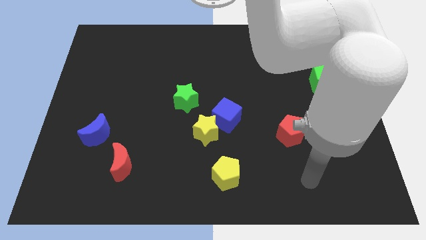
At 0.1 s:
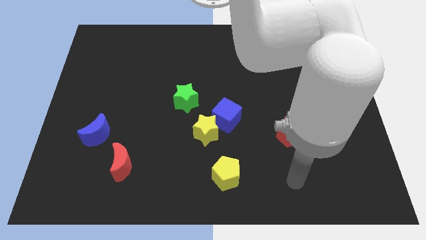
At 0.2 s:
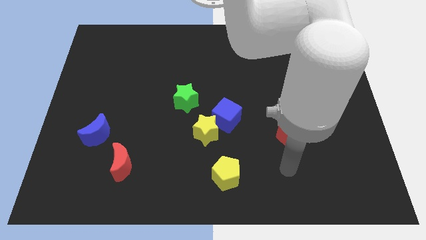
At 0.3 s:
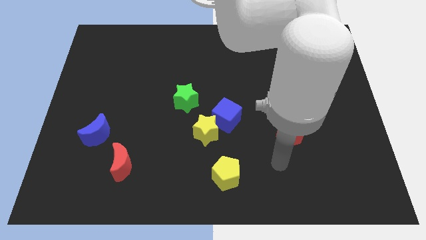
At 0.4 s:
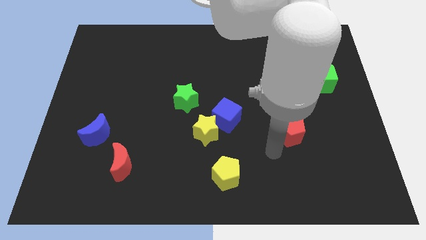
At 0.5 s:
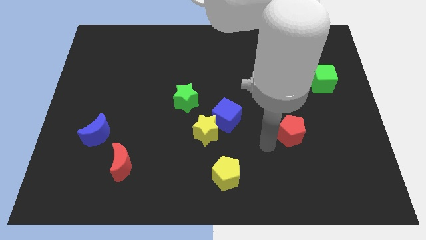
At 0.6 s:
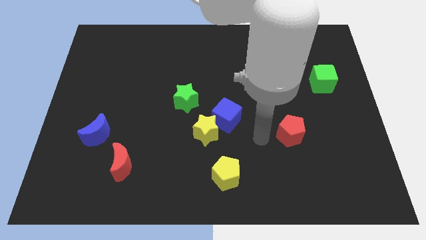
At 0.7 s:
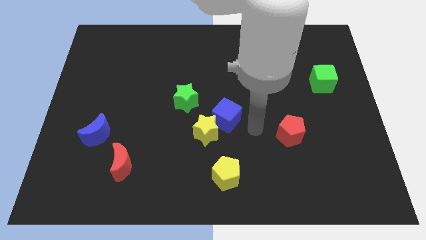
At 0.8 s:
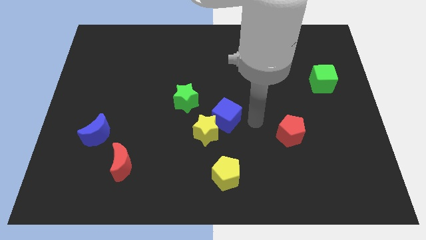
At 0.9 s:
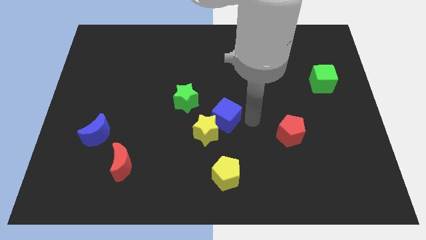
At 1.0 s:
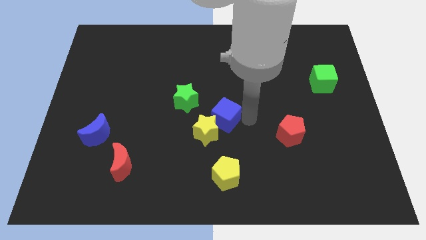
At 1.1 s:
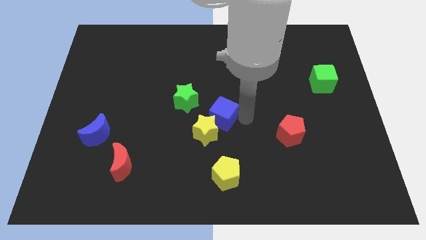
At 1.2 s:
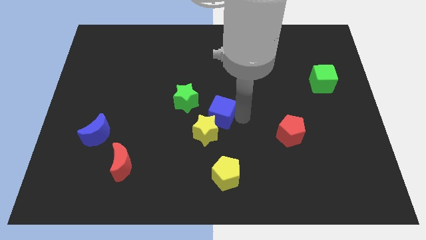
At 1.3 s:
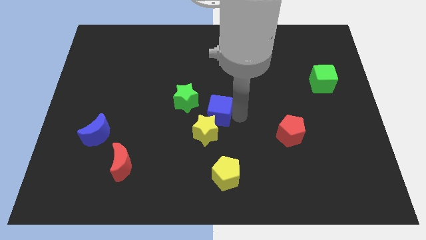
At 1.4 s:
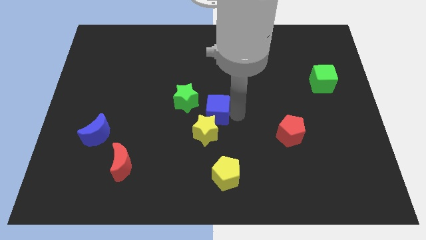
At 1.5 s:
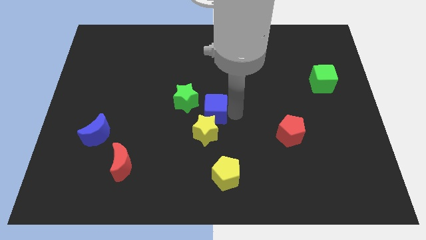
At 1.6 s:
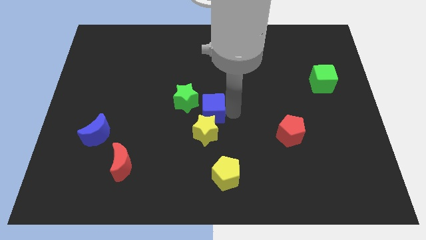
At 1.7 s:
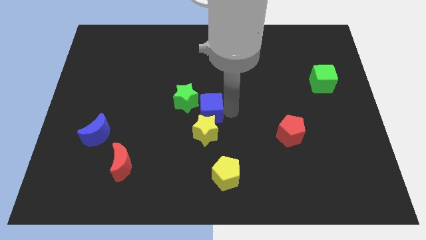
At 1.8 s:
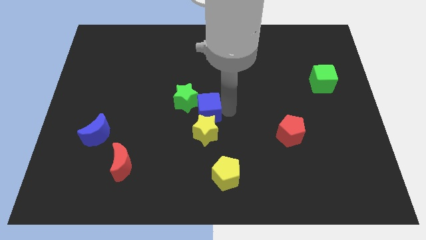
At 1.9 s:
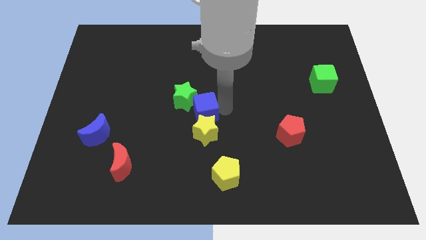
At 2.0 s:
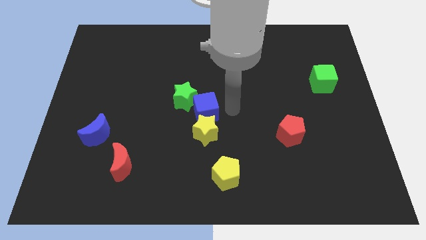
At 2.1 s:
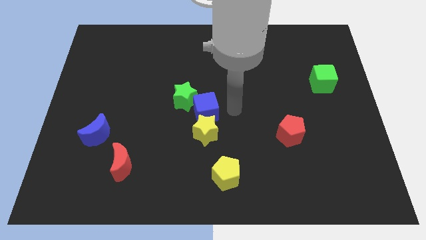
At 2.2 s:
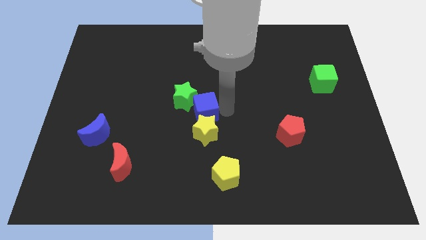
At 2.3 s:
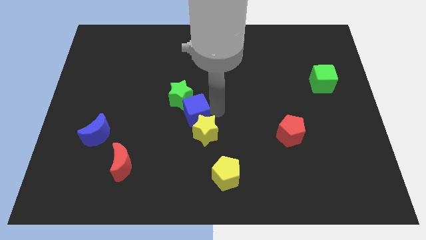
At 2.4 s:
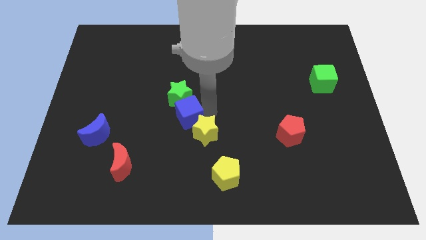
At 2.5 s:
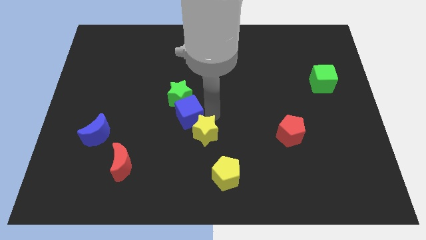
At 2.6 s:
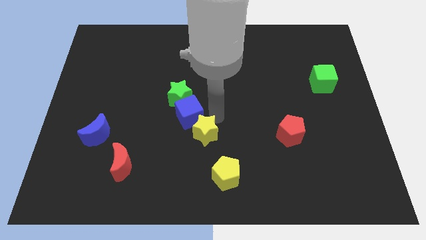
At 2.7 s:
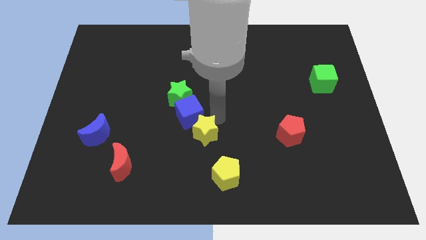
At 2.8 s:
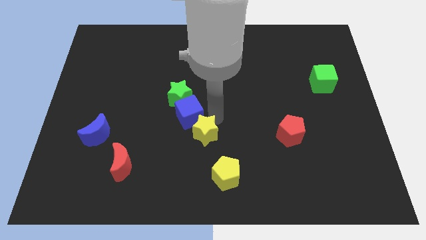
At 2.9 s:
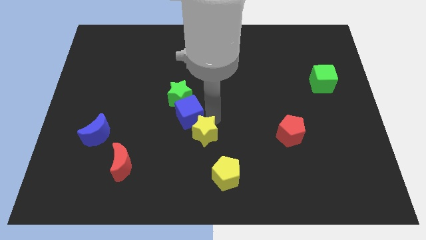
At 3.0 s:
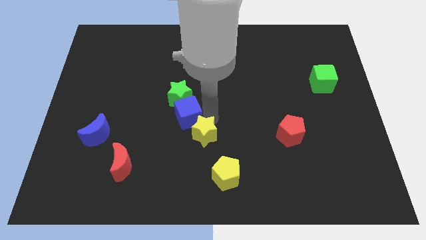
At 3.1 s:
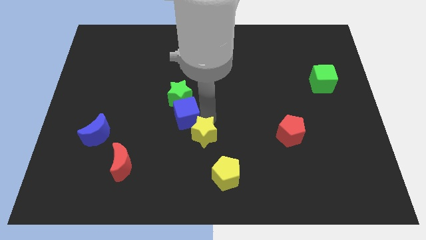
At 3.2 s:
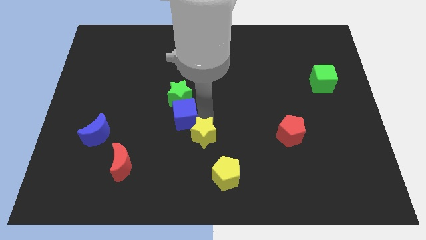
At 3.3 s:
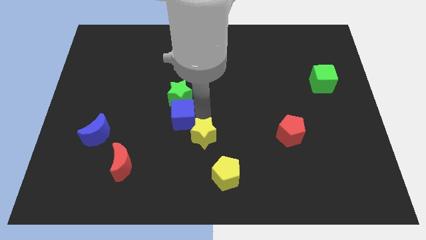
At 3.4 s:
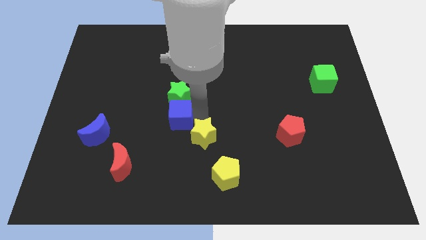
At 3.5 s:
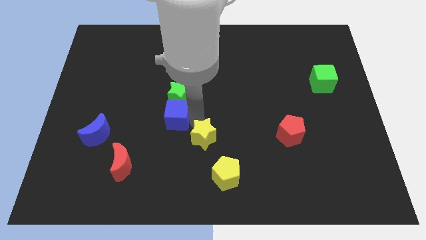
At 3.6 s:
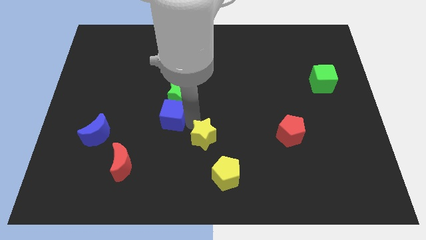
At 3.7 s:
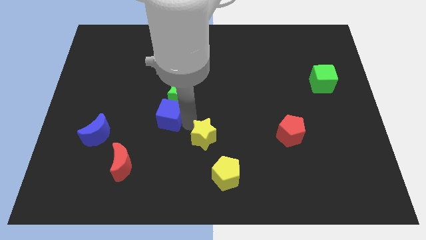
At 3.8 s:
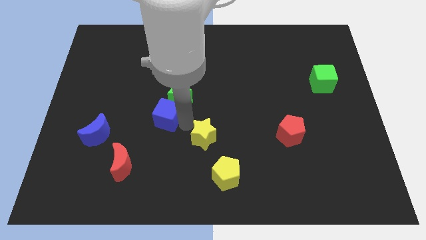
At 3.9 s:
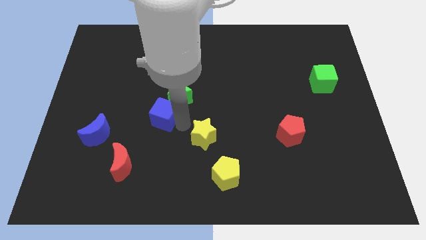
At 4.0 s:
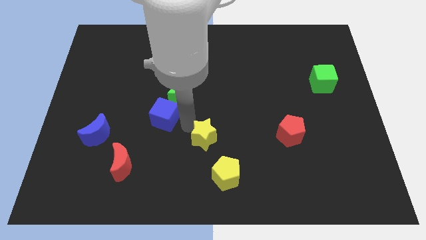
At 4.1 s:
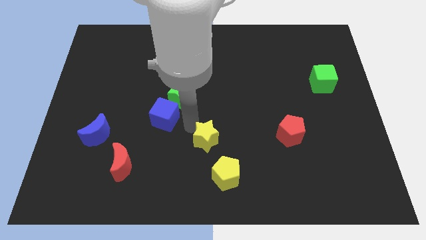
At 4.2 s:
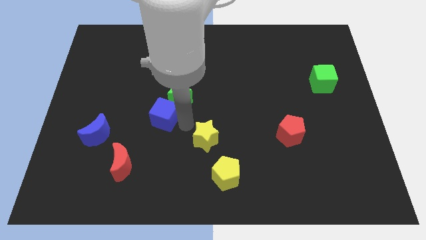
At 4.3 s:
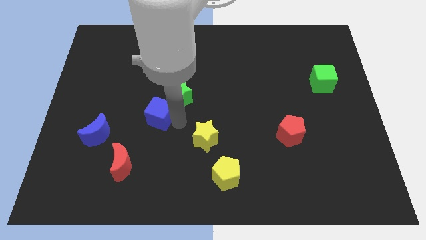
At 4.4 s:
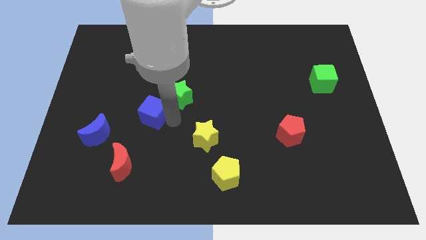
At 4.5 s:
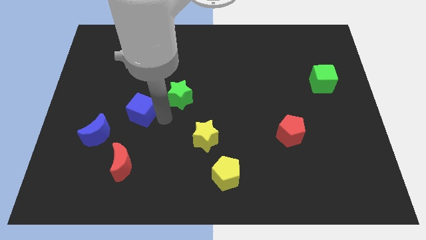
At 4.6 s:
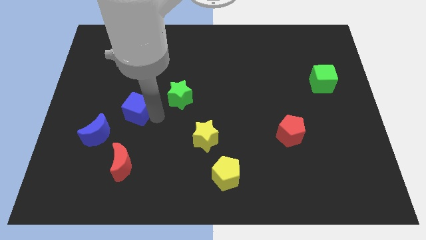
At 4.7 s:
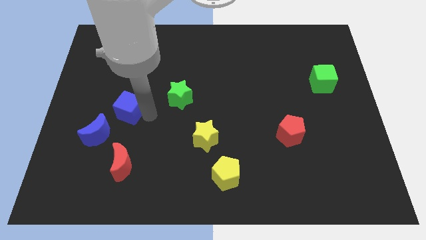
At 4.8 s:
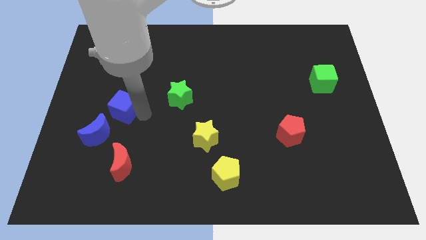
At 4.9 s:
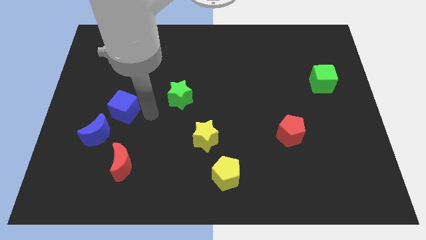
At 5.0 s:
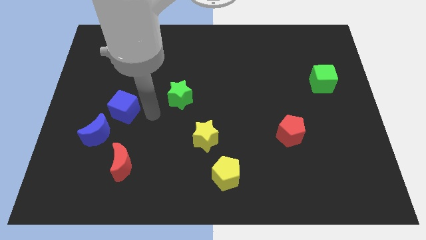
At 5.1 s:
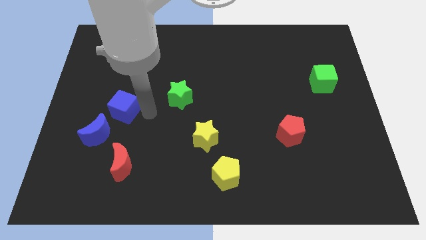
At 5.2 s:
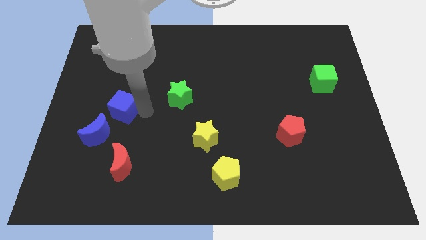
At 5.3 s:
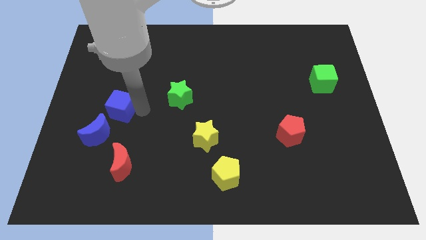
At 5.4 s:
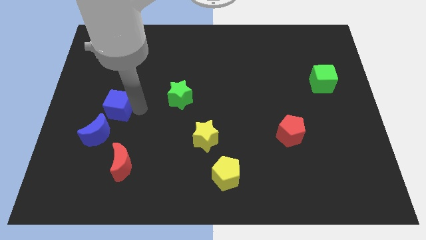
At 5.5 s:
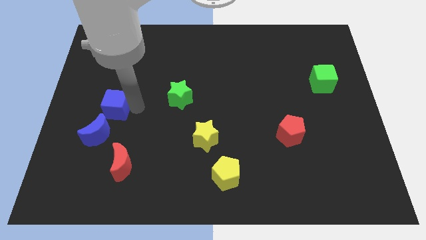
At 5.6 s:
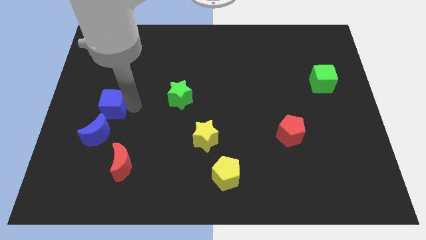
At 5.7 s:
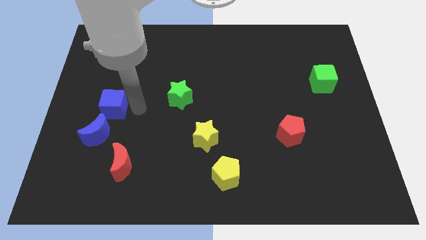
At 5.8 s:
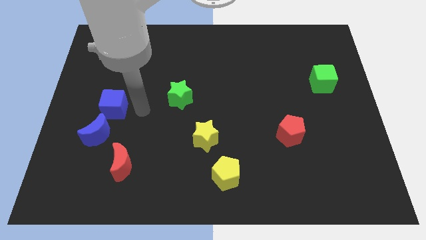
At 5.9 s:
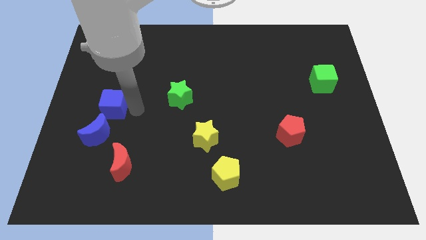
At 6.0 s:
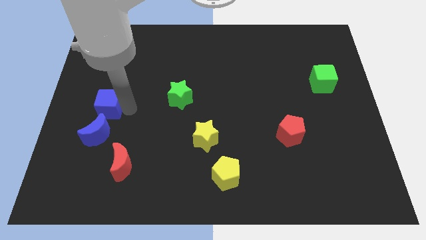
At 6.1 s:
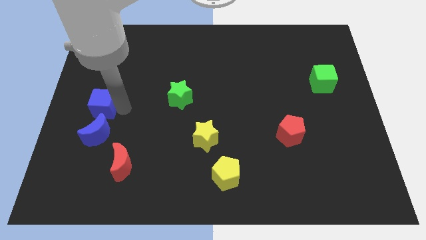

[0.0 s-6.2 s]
put the blue cube to the center left
